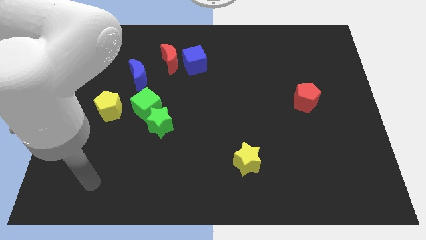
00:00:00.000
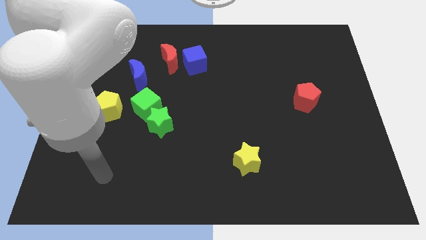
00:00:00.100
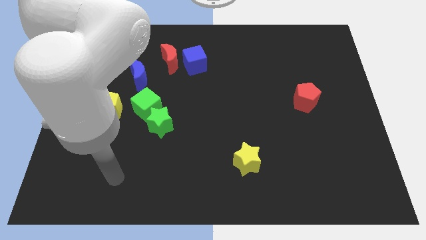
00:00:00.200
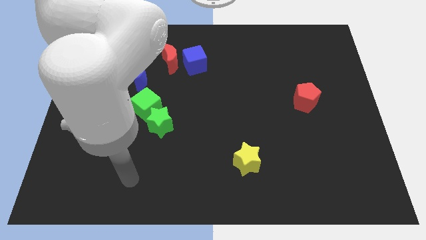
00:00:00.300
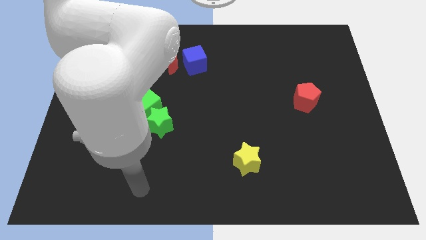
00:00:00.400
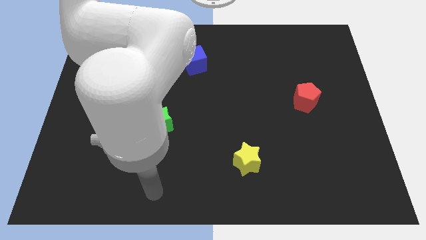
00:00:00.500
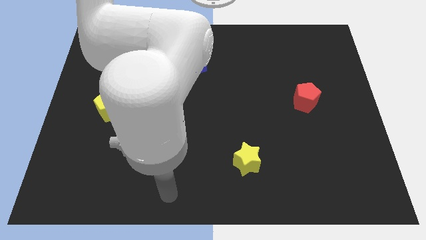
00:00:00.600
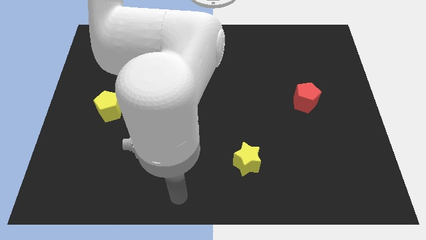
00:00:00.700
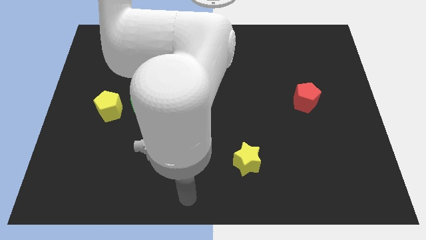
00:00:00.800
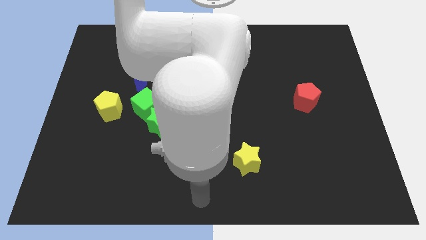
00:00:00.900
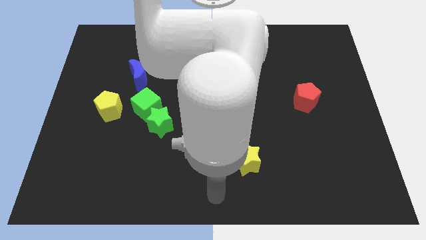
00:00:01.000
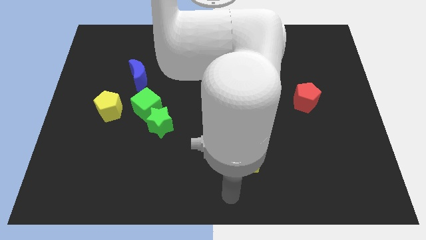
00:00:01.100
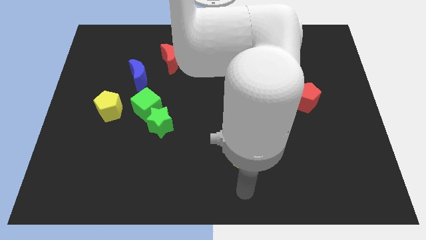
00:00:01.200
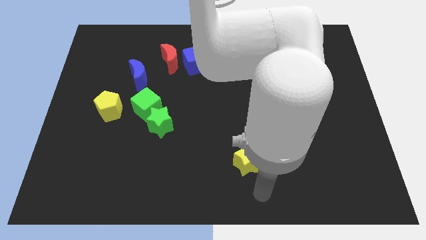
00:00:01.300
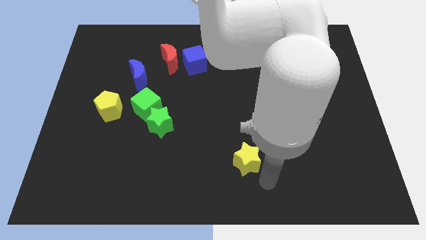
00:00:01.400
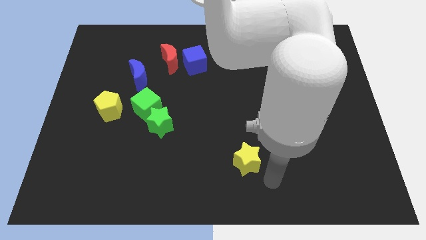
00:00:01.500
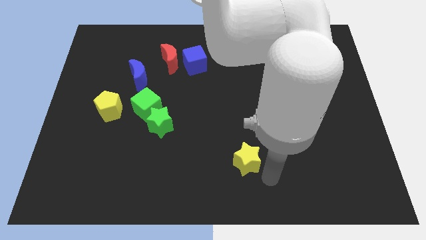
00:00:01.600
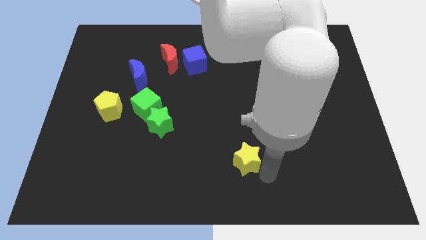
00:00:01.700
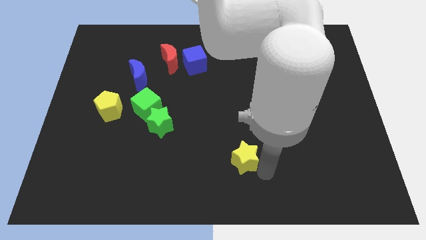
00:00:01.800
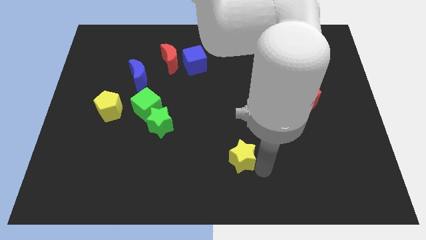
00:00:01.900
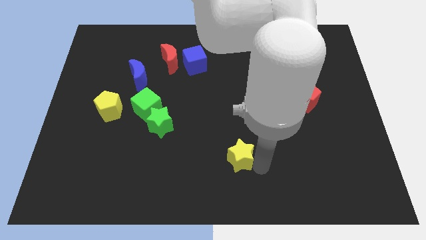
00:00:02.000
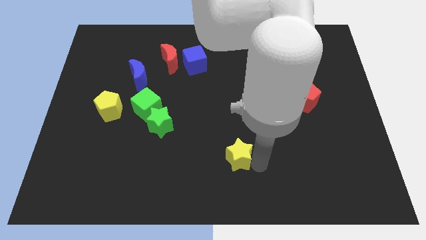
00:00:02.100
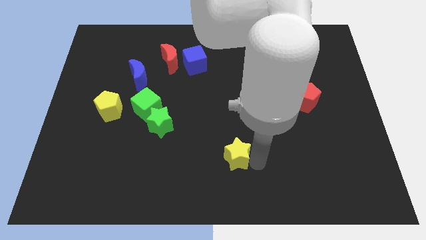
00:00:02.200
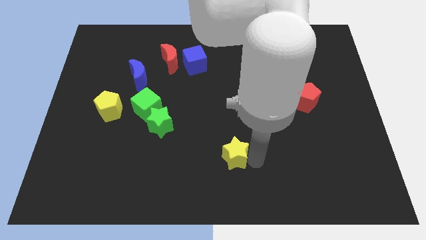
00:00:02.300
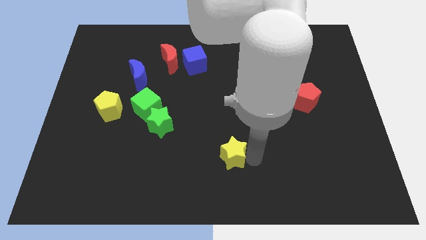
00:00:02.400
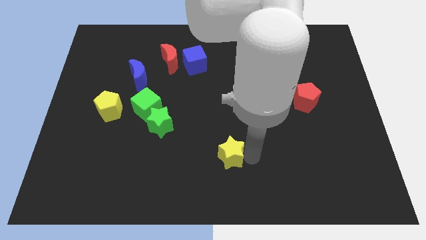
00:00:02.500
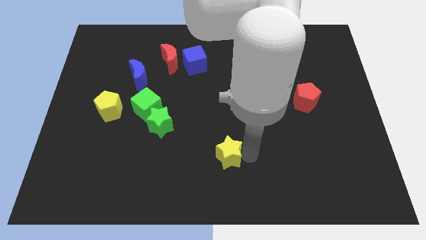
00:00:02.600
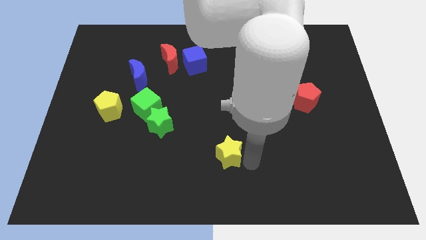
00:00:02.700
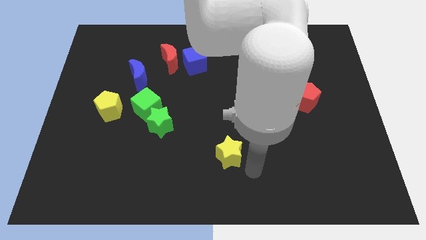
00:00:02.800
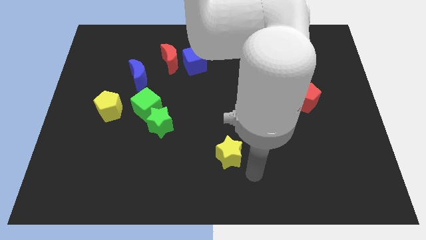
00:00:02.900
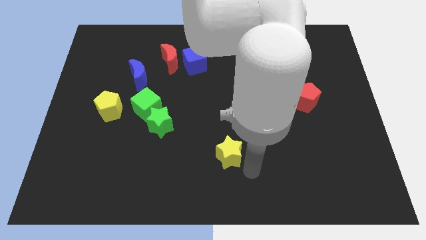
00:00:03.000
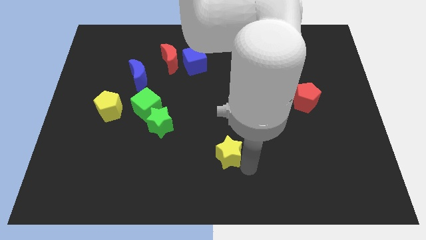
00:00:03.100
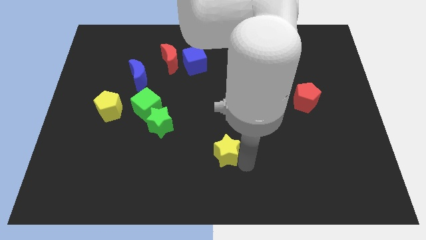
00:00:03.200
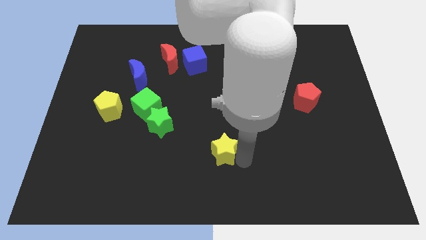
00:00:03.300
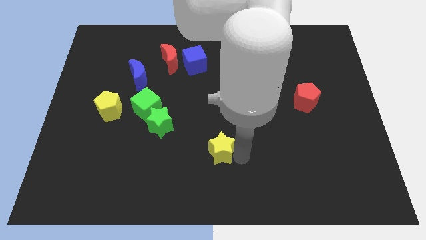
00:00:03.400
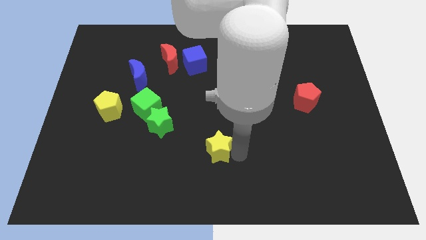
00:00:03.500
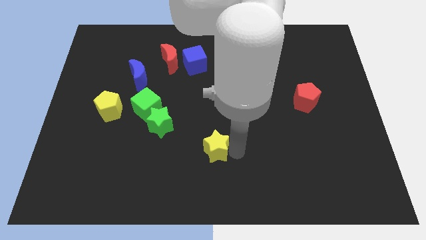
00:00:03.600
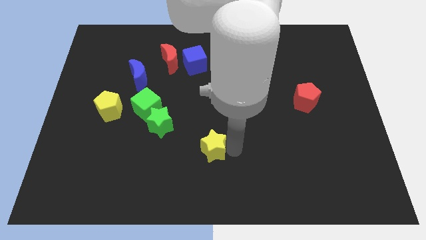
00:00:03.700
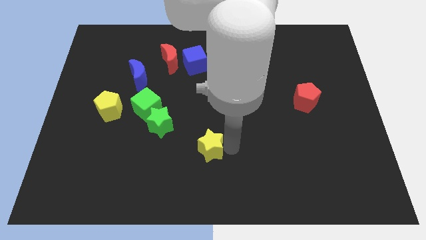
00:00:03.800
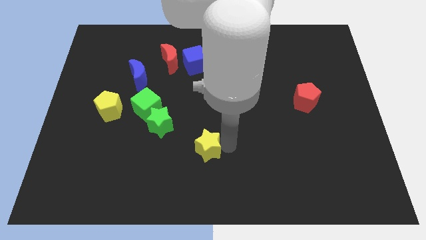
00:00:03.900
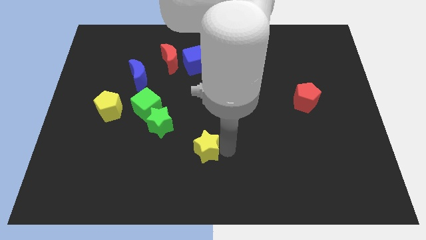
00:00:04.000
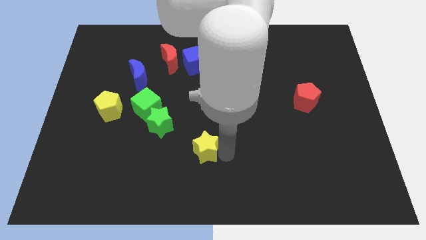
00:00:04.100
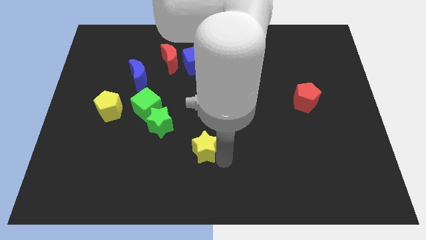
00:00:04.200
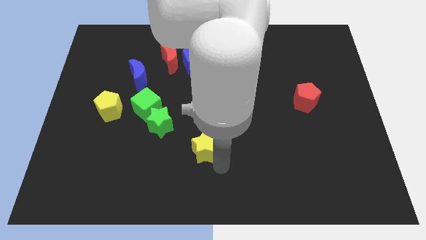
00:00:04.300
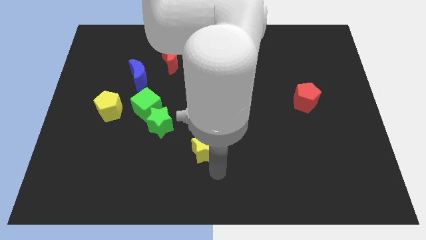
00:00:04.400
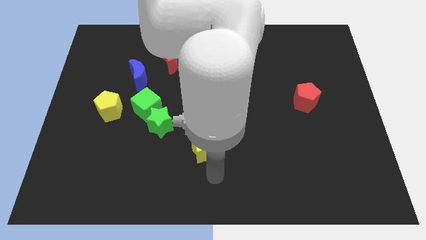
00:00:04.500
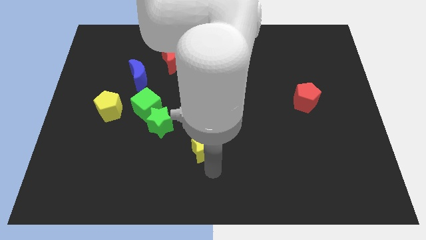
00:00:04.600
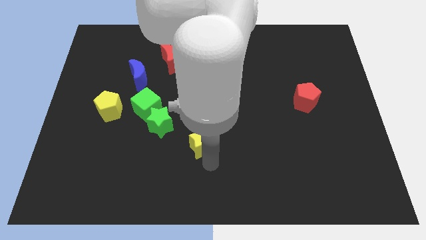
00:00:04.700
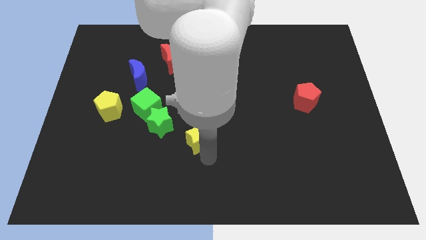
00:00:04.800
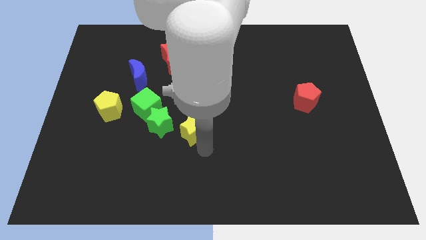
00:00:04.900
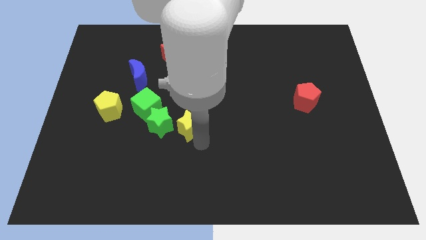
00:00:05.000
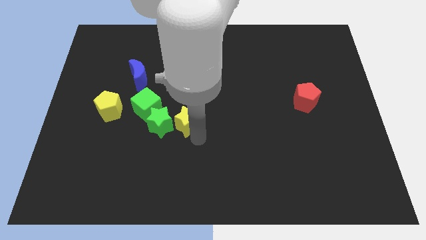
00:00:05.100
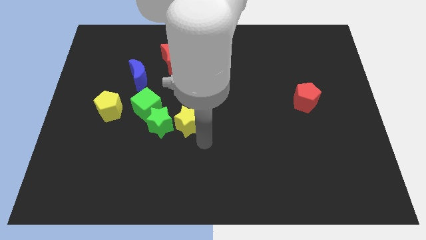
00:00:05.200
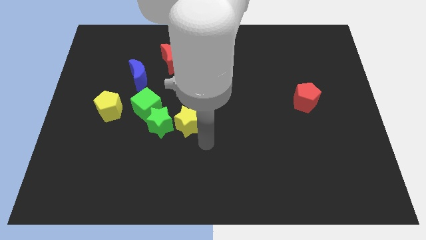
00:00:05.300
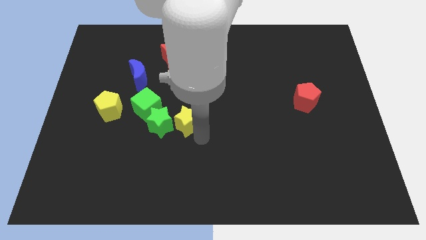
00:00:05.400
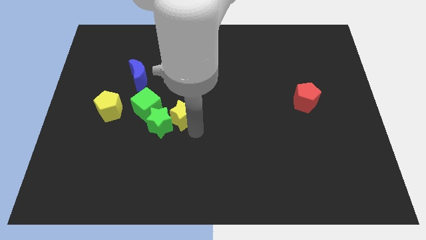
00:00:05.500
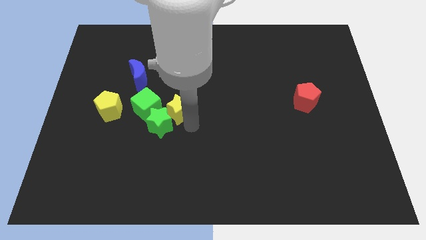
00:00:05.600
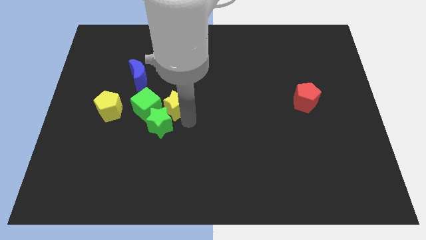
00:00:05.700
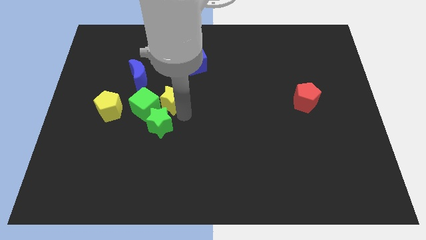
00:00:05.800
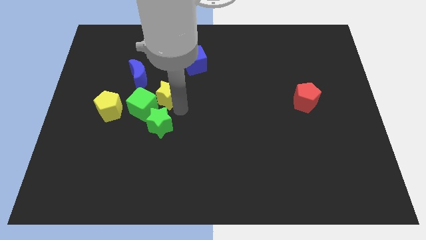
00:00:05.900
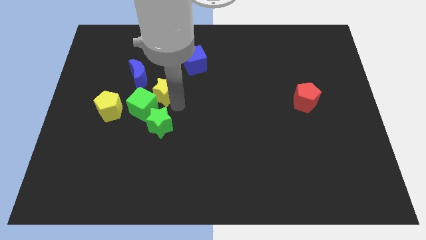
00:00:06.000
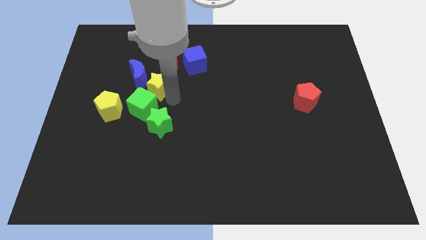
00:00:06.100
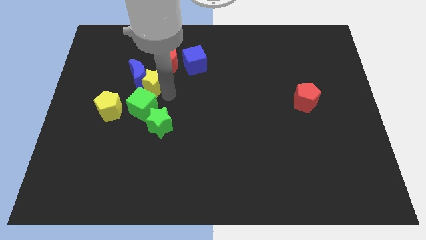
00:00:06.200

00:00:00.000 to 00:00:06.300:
push the yellow star close to the blue moon

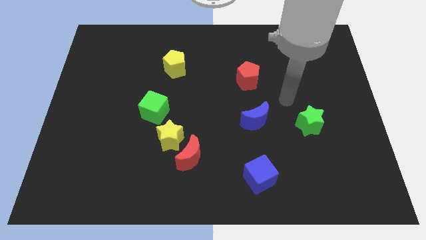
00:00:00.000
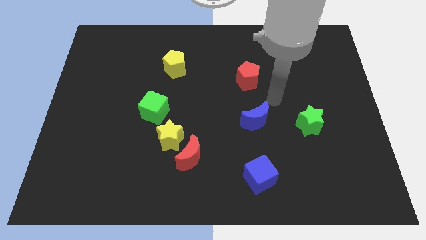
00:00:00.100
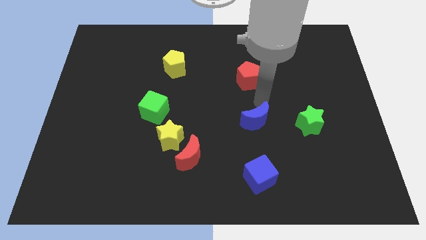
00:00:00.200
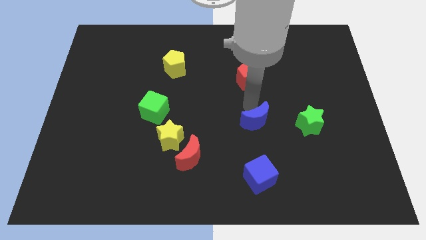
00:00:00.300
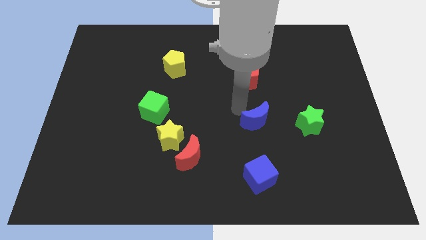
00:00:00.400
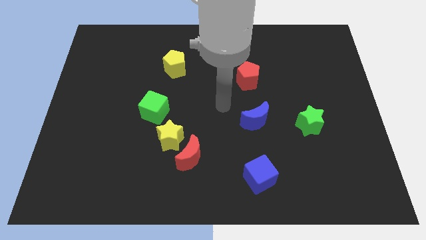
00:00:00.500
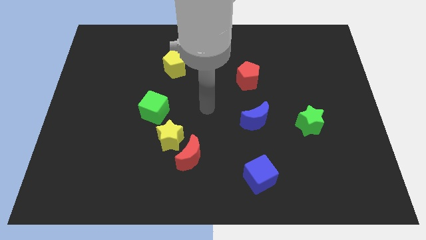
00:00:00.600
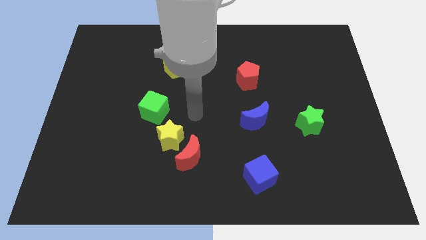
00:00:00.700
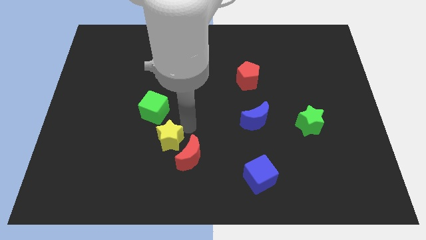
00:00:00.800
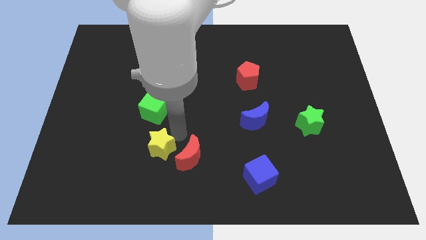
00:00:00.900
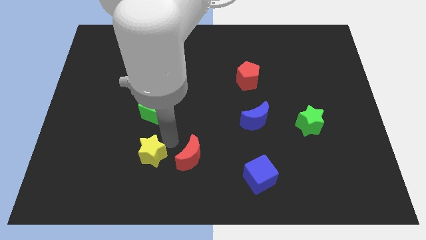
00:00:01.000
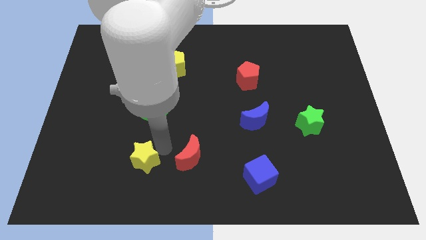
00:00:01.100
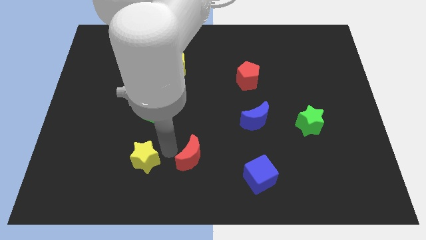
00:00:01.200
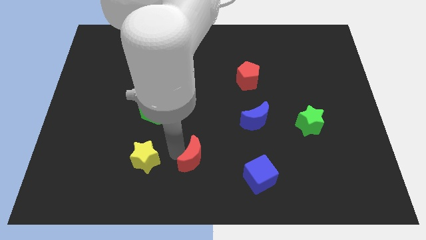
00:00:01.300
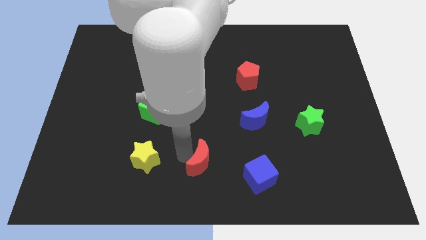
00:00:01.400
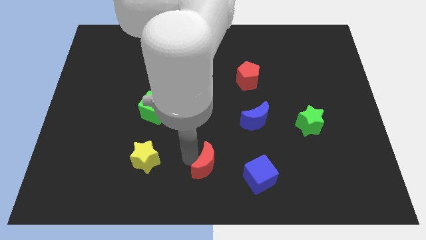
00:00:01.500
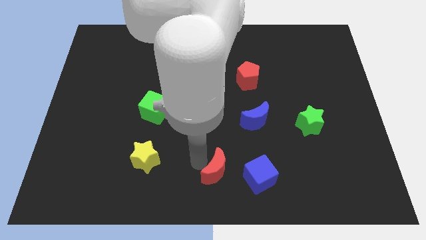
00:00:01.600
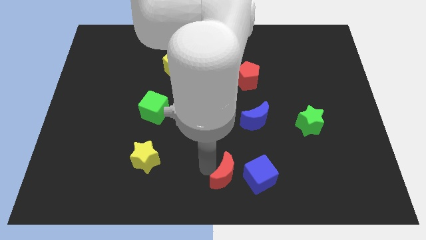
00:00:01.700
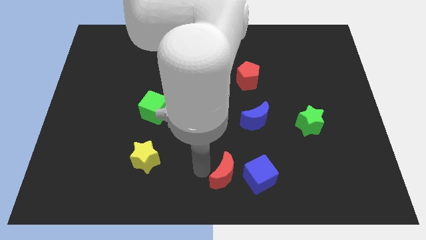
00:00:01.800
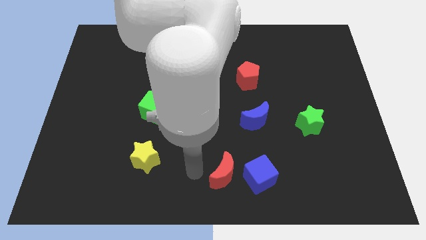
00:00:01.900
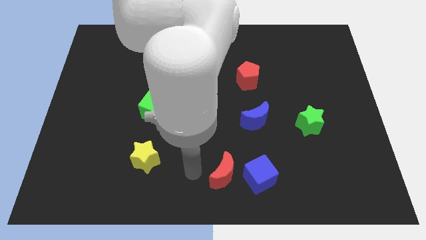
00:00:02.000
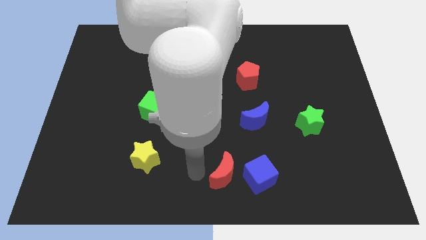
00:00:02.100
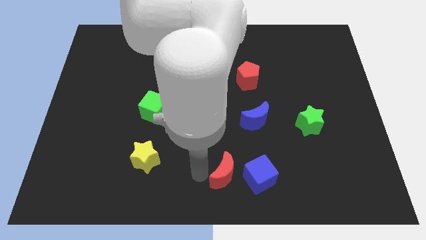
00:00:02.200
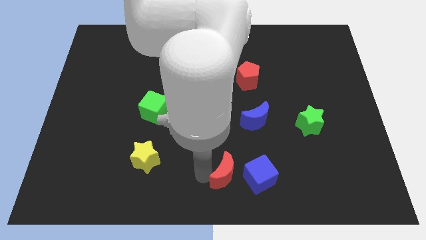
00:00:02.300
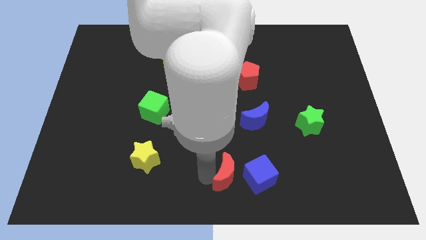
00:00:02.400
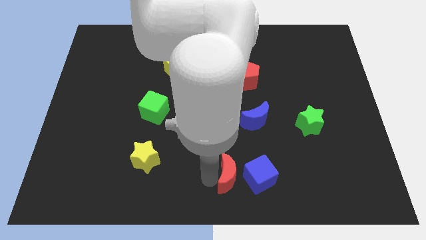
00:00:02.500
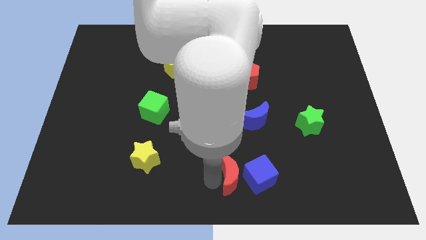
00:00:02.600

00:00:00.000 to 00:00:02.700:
push the red moon close to the blue cube
